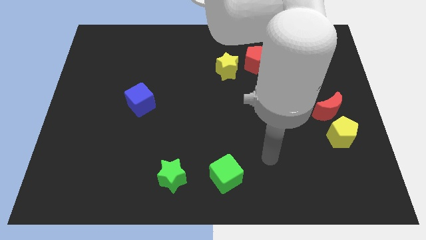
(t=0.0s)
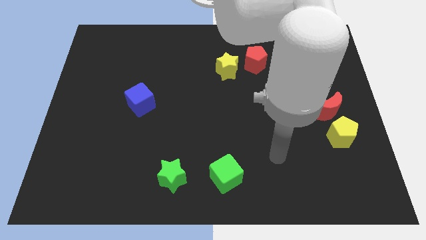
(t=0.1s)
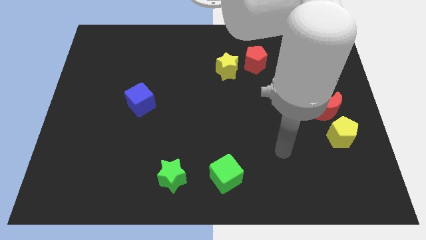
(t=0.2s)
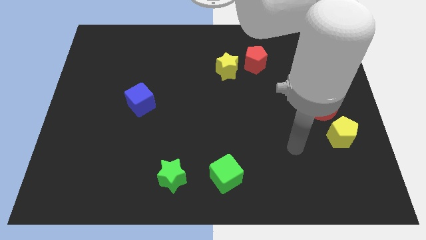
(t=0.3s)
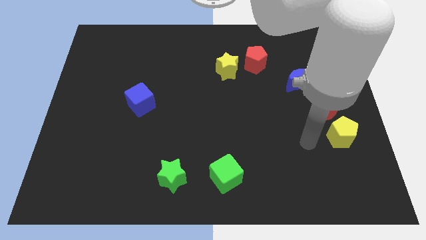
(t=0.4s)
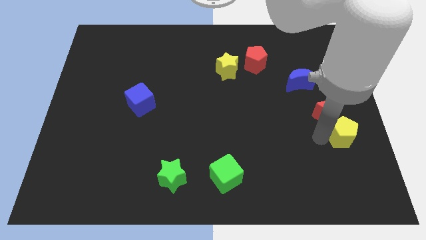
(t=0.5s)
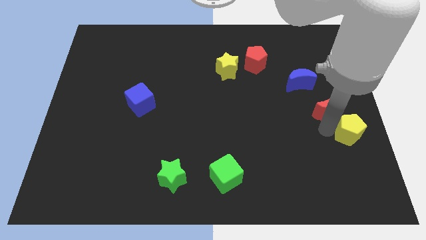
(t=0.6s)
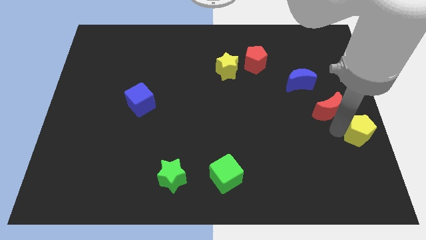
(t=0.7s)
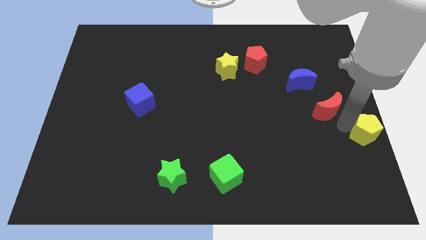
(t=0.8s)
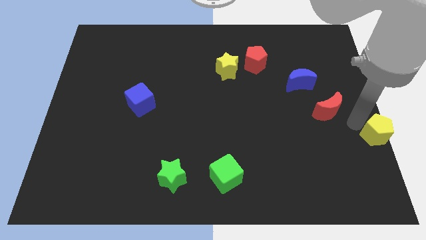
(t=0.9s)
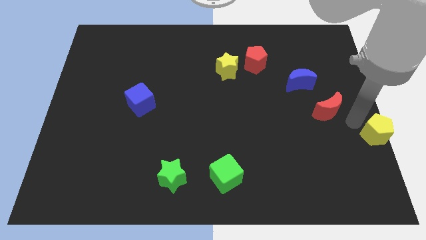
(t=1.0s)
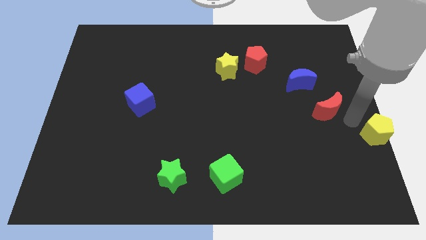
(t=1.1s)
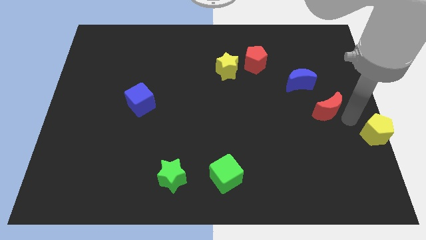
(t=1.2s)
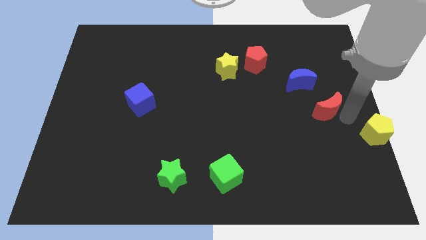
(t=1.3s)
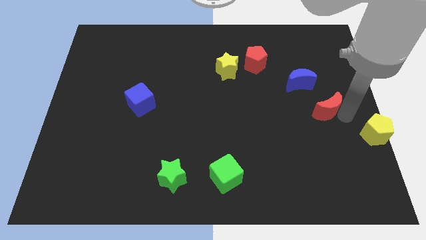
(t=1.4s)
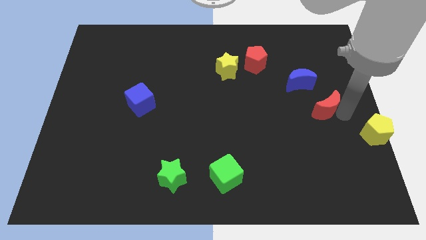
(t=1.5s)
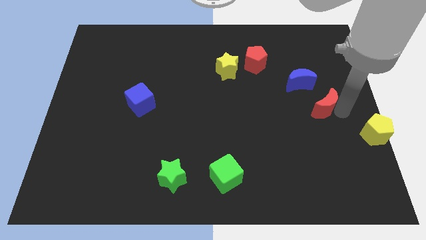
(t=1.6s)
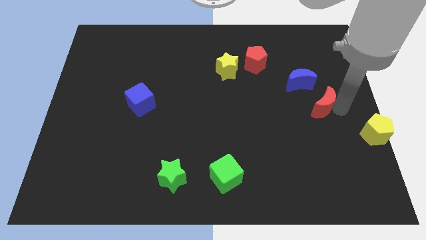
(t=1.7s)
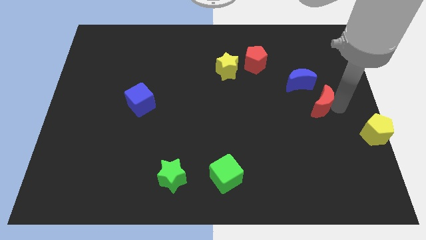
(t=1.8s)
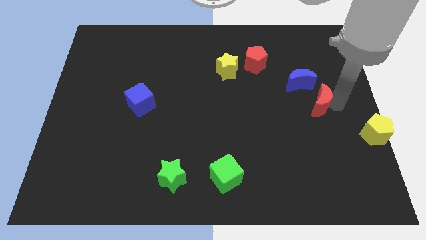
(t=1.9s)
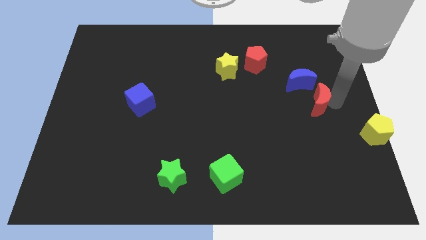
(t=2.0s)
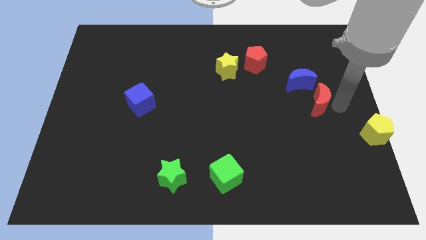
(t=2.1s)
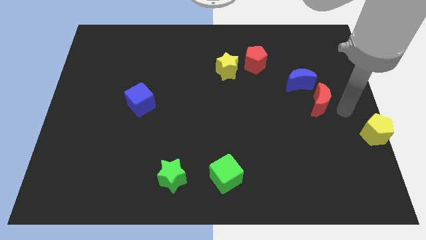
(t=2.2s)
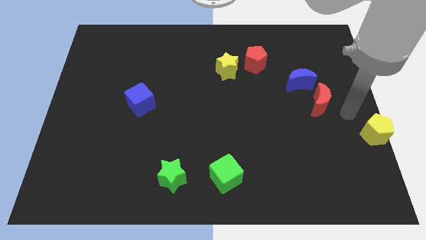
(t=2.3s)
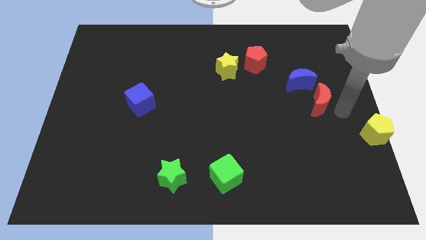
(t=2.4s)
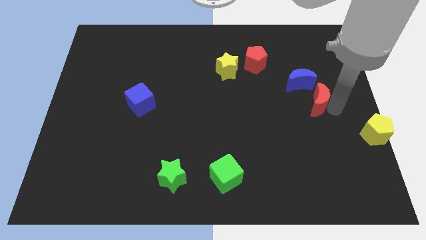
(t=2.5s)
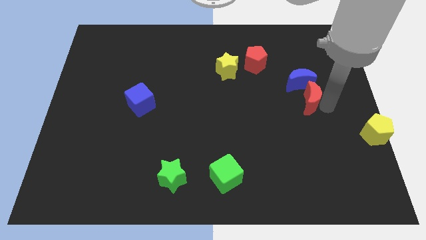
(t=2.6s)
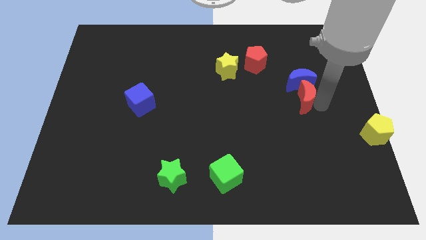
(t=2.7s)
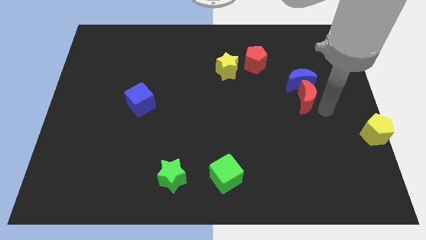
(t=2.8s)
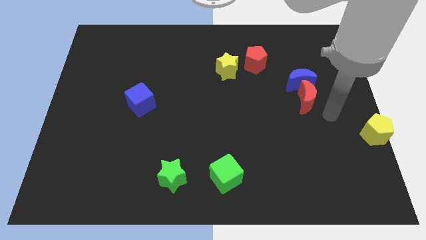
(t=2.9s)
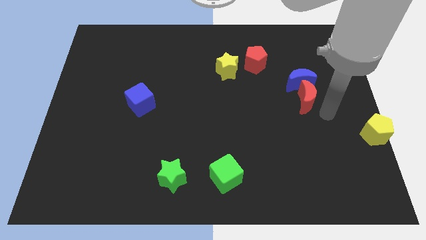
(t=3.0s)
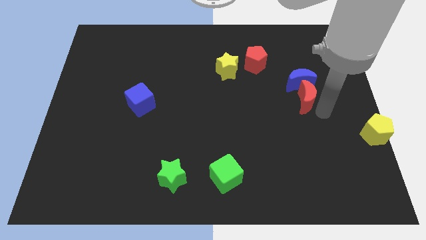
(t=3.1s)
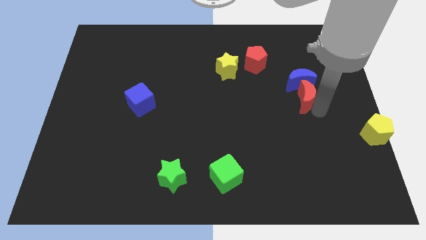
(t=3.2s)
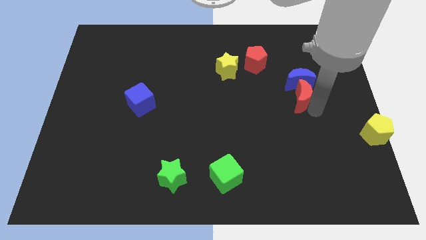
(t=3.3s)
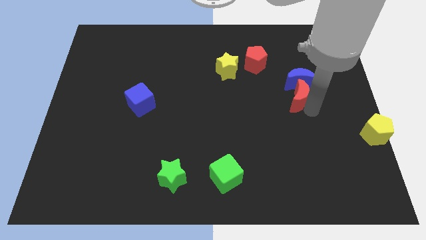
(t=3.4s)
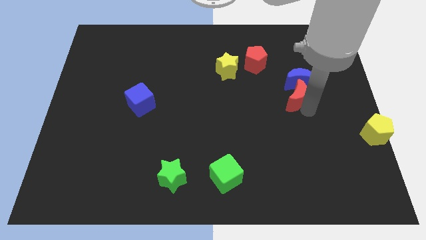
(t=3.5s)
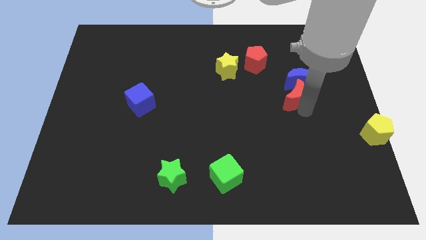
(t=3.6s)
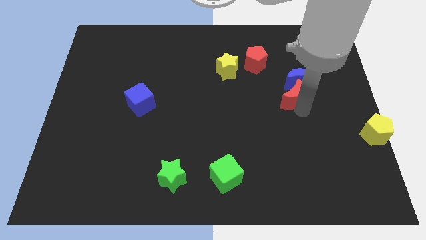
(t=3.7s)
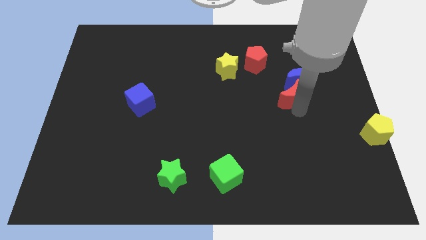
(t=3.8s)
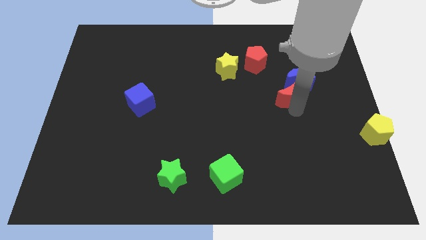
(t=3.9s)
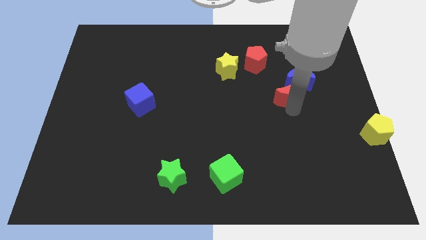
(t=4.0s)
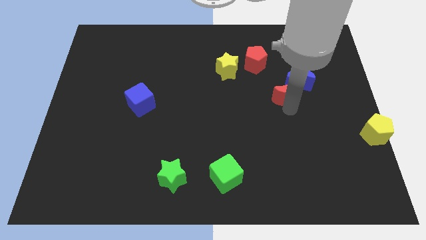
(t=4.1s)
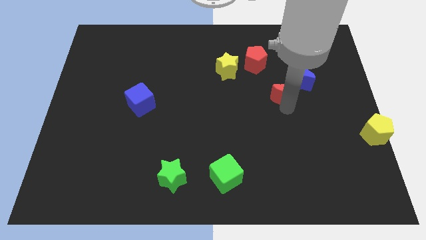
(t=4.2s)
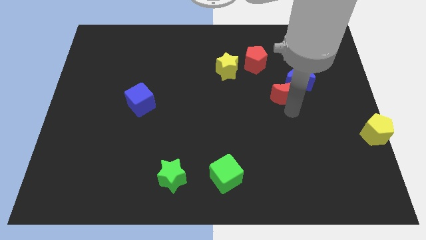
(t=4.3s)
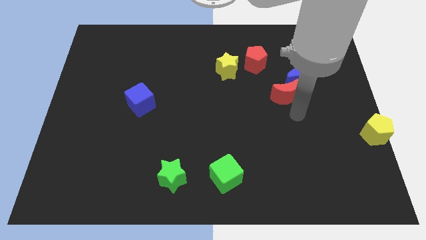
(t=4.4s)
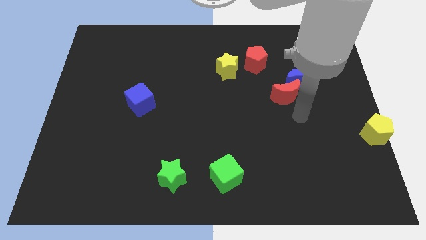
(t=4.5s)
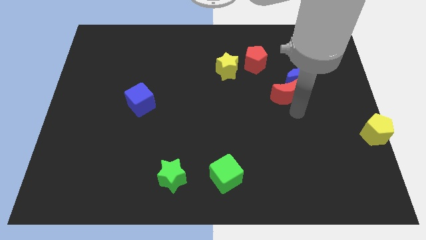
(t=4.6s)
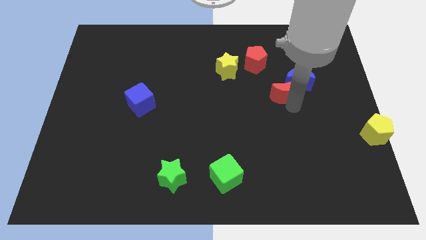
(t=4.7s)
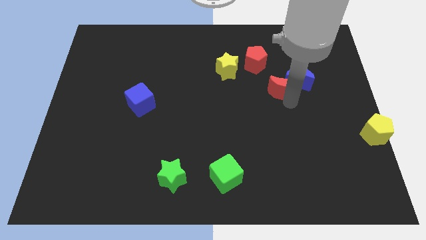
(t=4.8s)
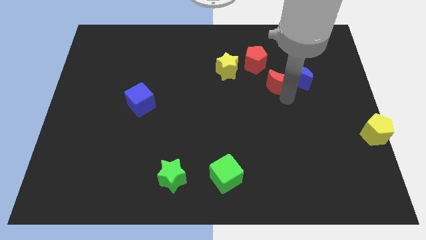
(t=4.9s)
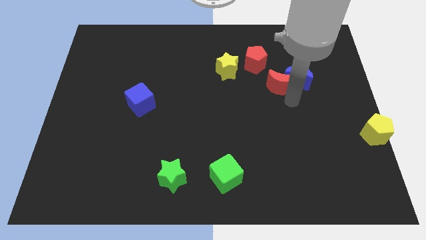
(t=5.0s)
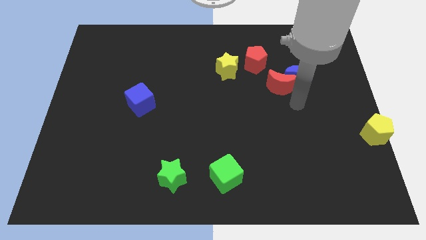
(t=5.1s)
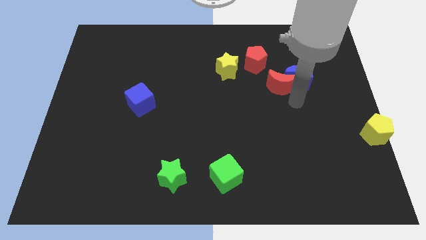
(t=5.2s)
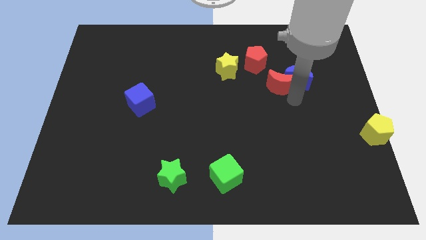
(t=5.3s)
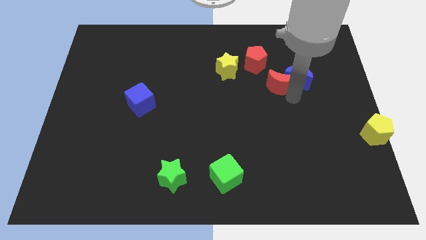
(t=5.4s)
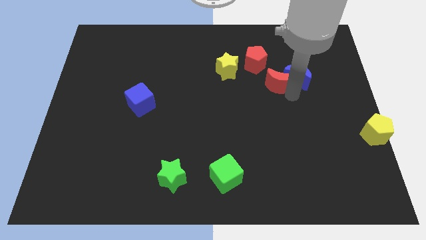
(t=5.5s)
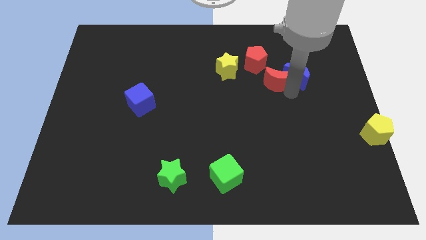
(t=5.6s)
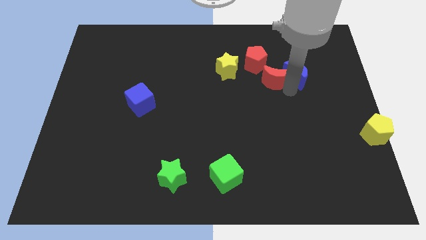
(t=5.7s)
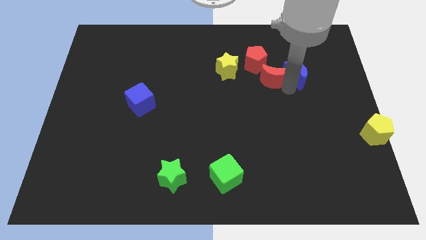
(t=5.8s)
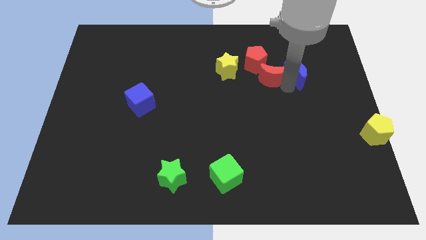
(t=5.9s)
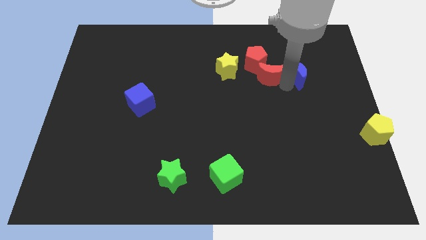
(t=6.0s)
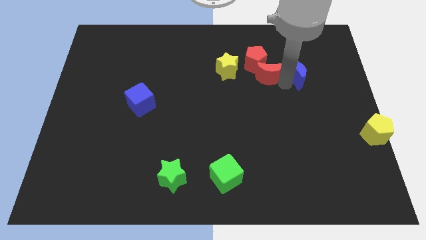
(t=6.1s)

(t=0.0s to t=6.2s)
slide the red moon close to the red pentagon

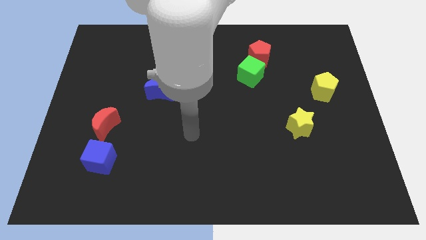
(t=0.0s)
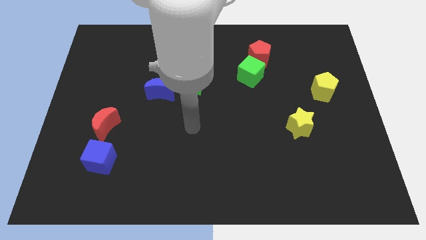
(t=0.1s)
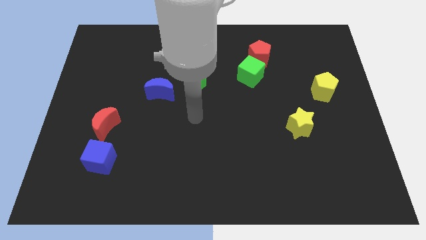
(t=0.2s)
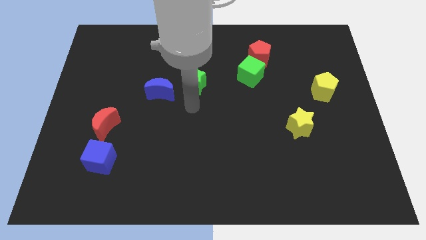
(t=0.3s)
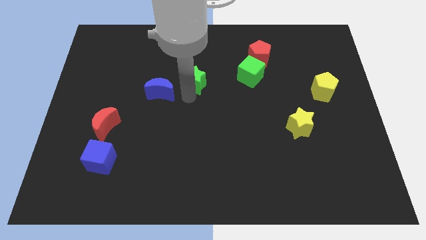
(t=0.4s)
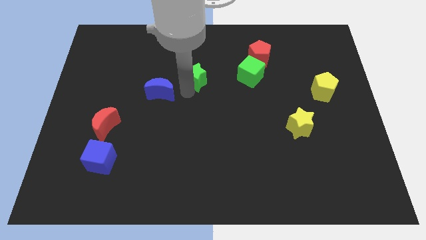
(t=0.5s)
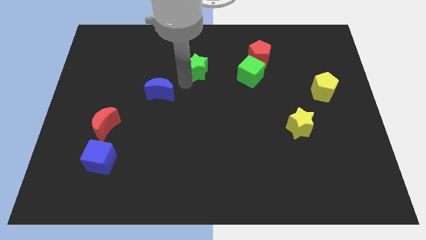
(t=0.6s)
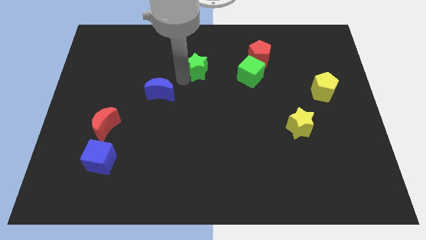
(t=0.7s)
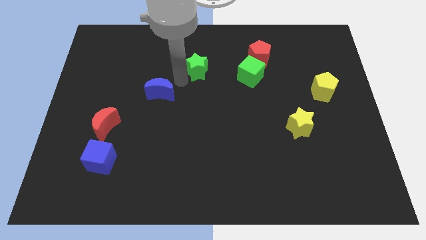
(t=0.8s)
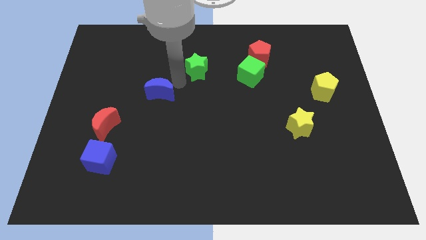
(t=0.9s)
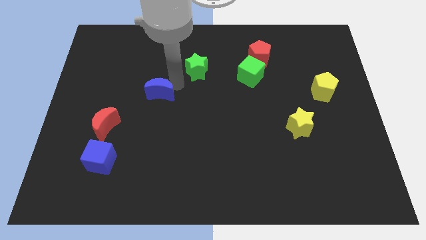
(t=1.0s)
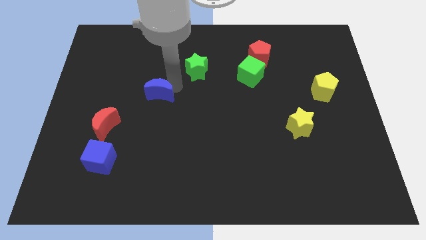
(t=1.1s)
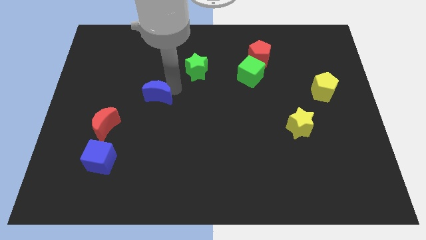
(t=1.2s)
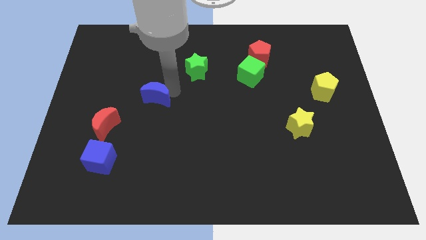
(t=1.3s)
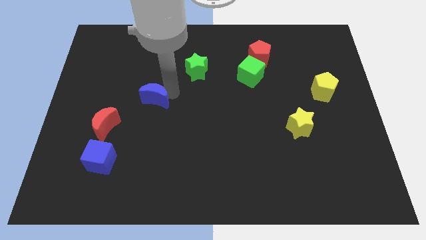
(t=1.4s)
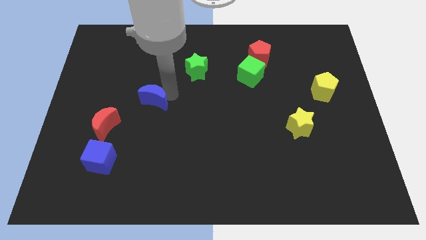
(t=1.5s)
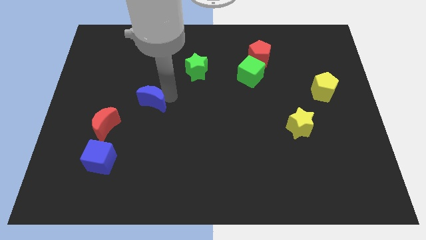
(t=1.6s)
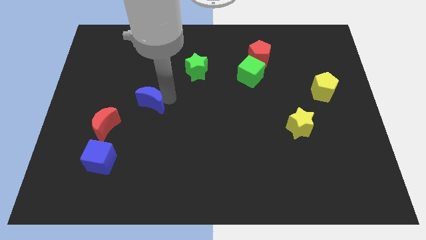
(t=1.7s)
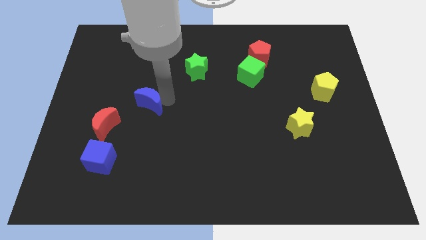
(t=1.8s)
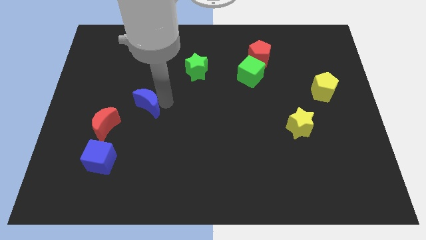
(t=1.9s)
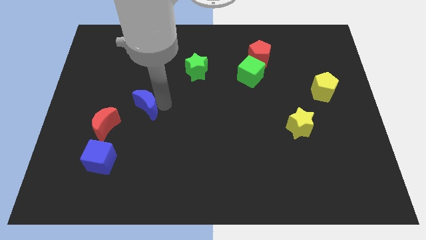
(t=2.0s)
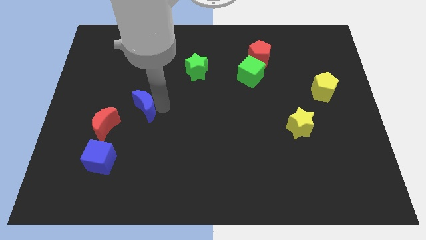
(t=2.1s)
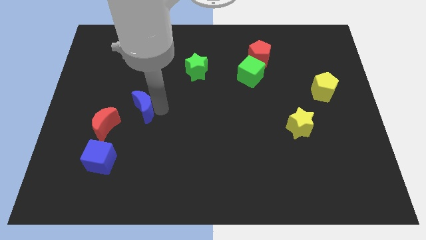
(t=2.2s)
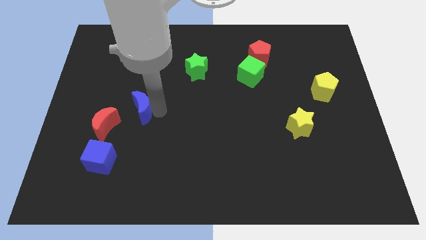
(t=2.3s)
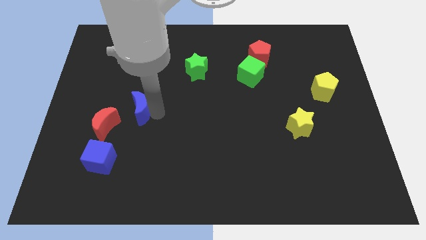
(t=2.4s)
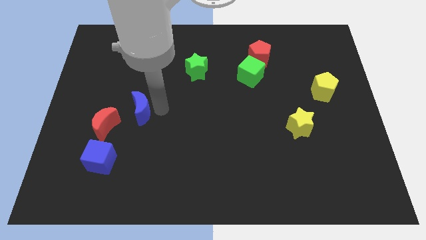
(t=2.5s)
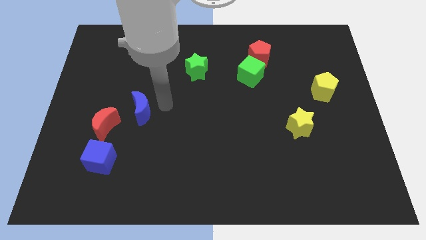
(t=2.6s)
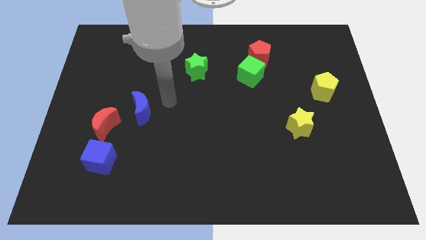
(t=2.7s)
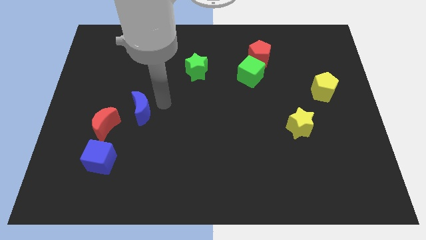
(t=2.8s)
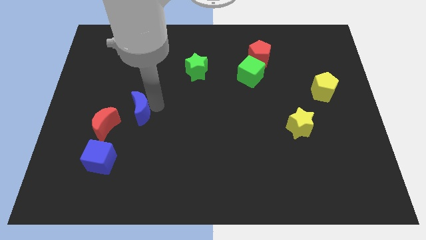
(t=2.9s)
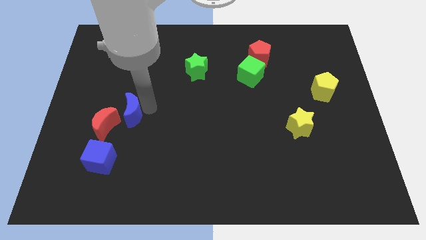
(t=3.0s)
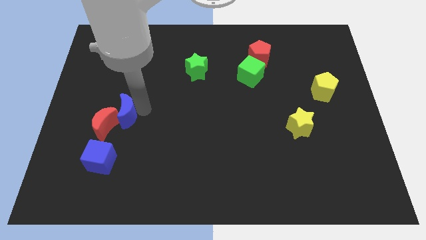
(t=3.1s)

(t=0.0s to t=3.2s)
slide the blue moon towards the red moon
